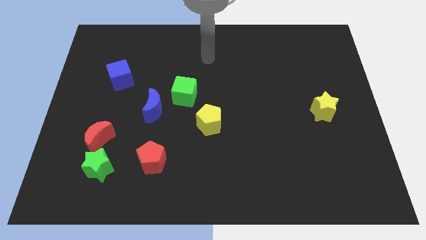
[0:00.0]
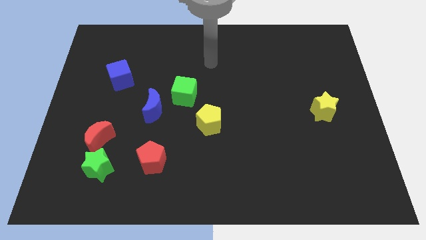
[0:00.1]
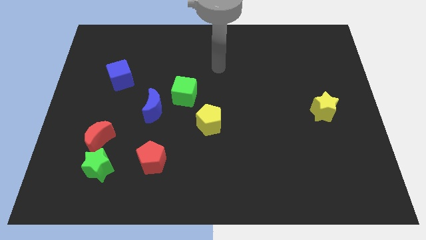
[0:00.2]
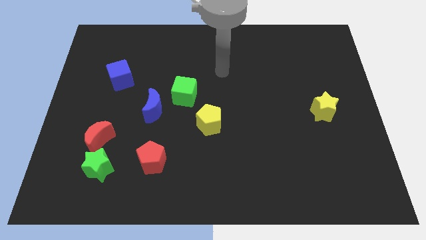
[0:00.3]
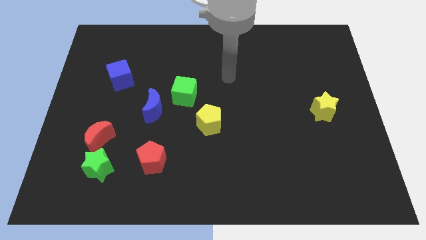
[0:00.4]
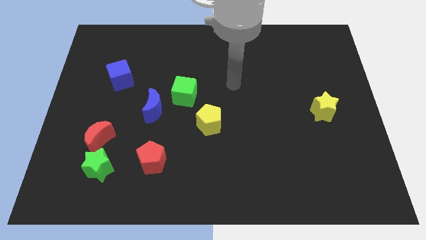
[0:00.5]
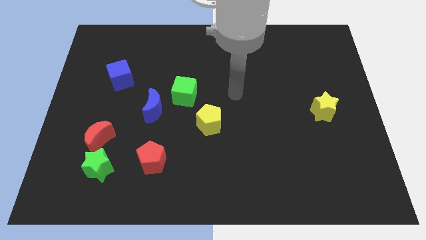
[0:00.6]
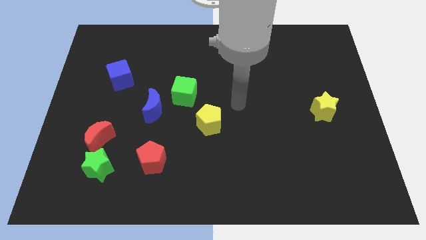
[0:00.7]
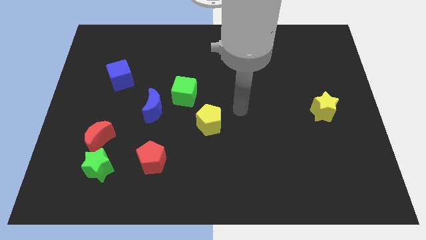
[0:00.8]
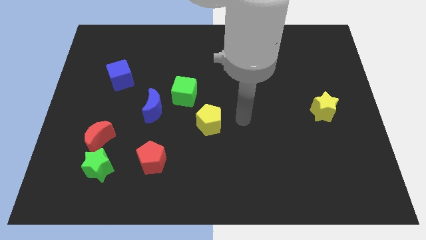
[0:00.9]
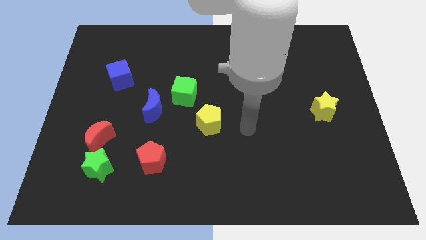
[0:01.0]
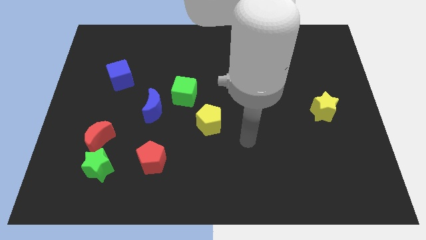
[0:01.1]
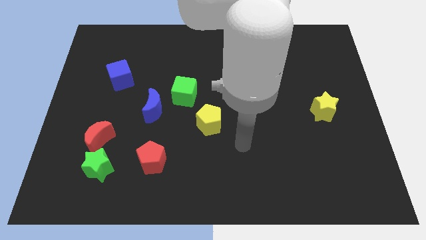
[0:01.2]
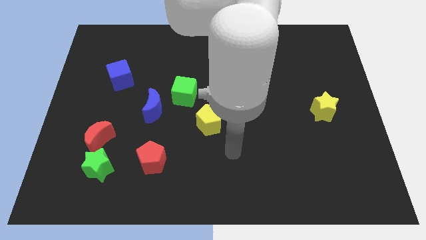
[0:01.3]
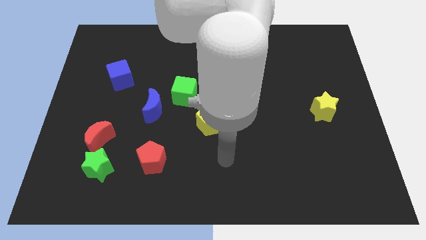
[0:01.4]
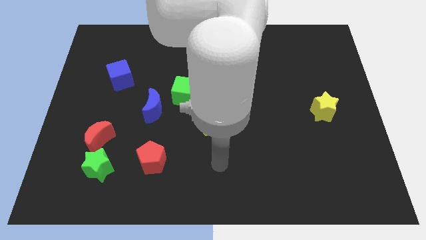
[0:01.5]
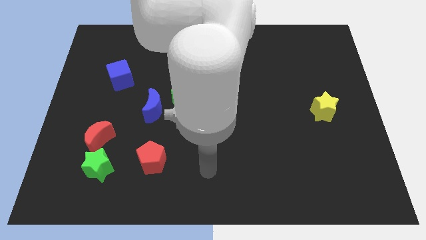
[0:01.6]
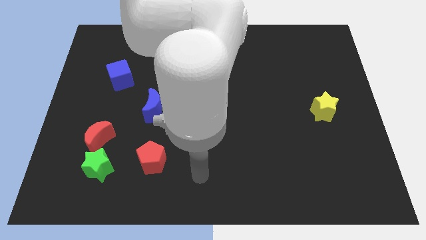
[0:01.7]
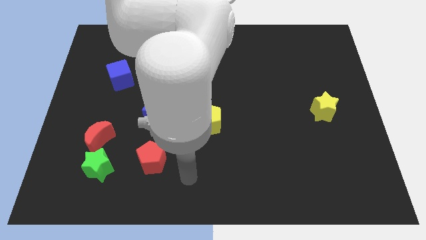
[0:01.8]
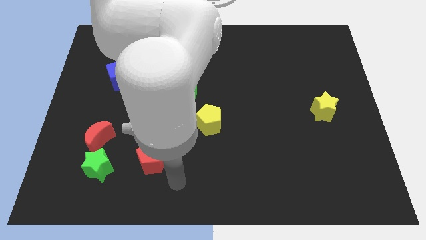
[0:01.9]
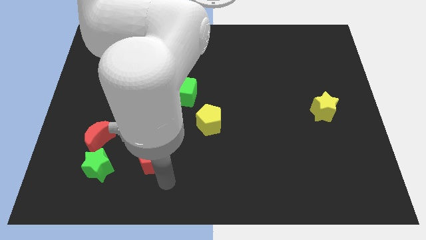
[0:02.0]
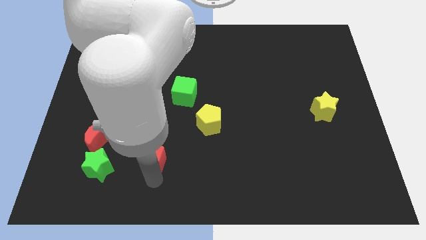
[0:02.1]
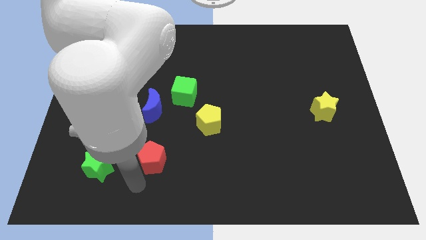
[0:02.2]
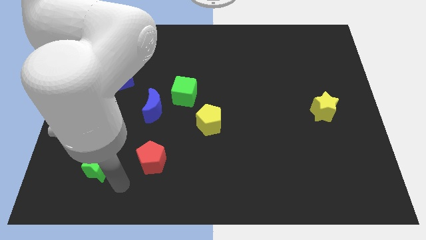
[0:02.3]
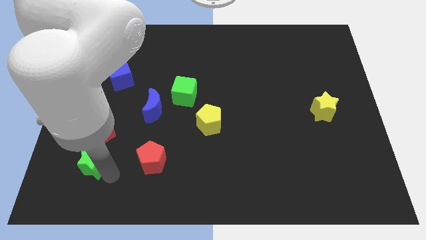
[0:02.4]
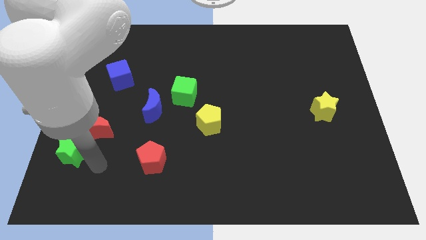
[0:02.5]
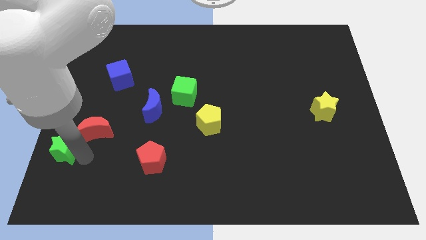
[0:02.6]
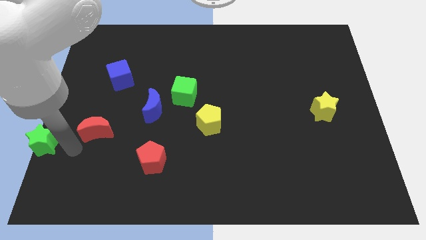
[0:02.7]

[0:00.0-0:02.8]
separate the red moon from the green star

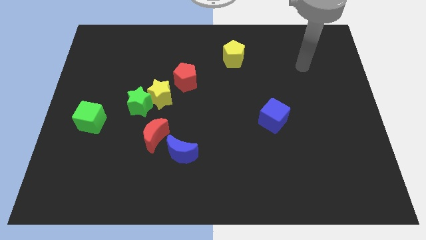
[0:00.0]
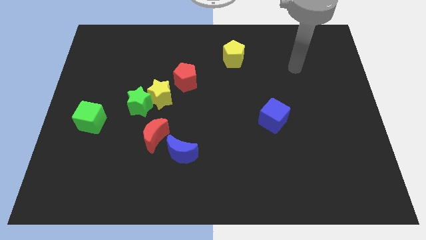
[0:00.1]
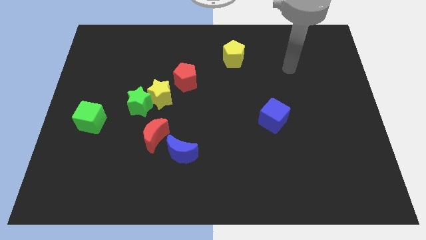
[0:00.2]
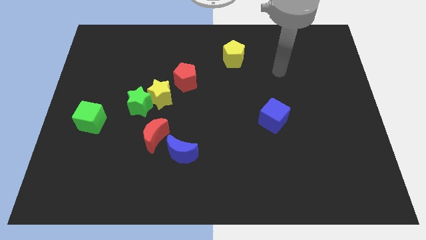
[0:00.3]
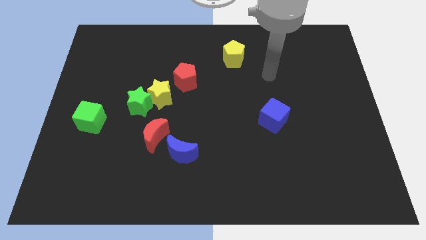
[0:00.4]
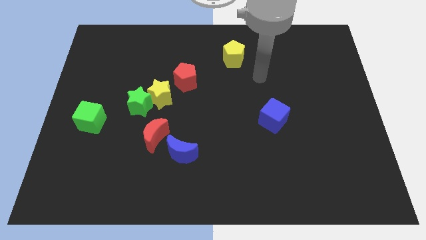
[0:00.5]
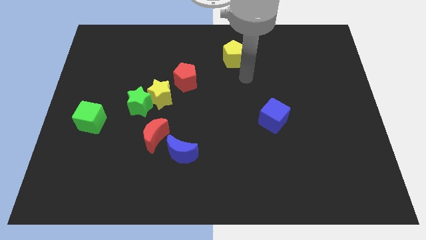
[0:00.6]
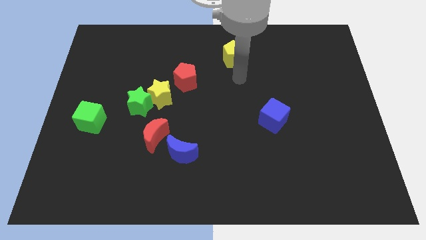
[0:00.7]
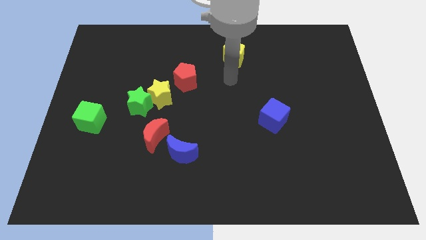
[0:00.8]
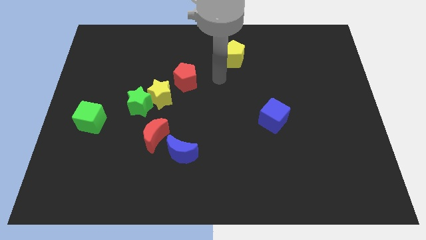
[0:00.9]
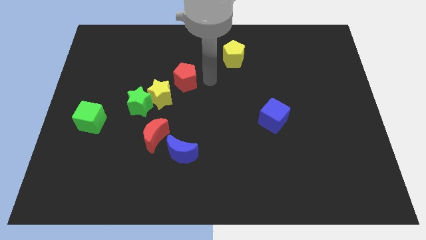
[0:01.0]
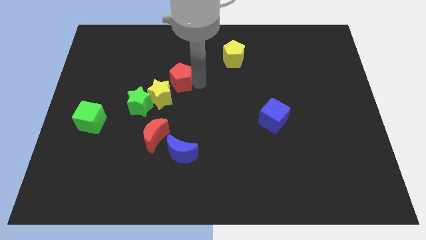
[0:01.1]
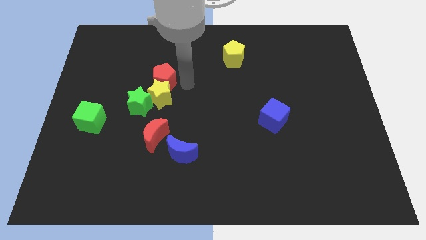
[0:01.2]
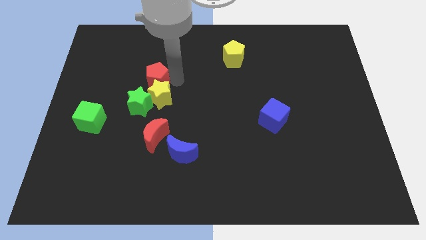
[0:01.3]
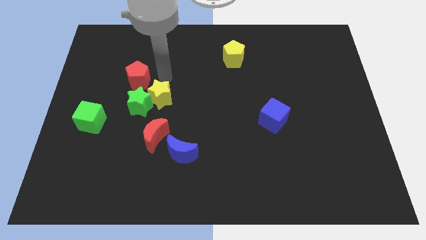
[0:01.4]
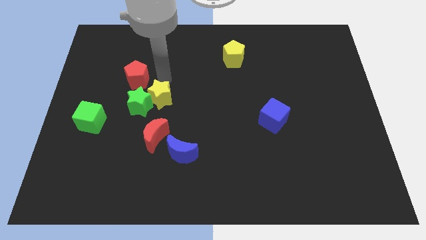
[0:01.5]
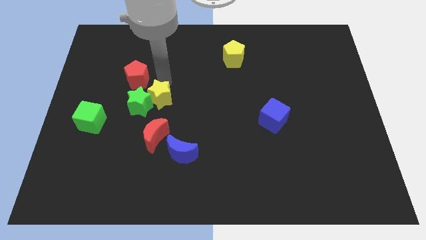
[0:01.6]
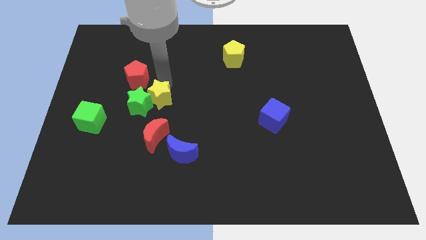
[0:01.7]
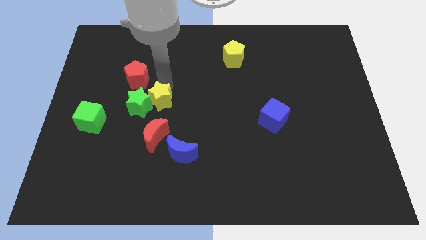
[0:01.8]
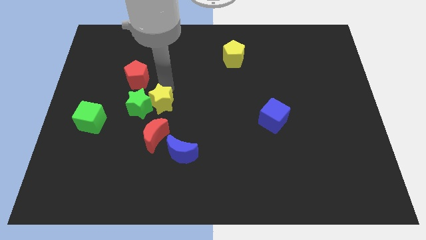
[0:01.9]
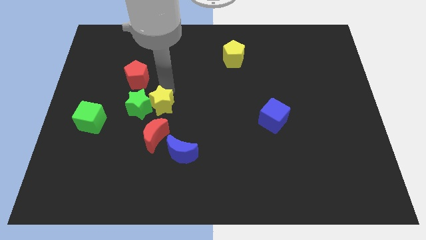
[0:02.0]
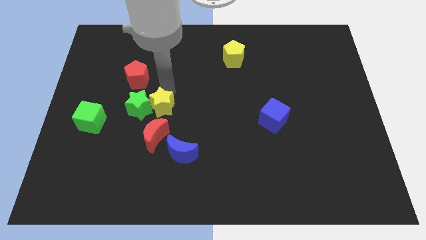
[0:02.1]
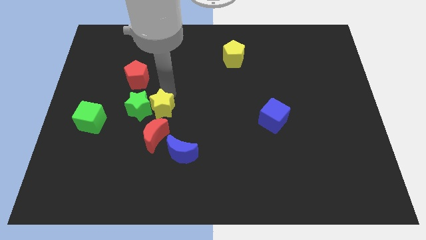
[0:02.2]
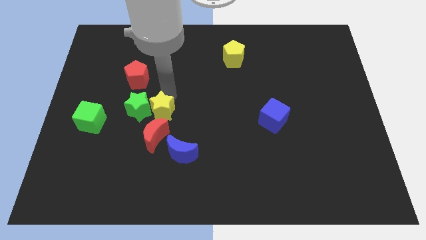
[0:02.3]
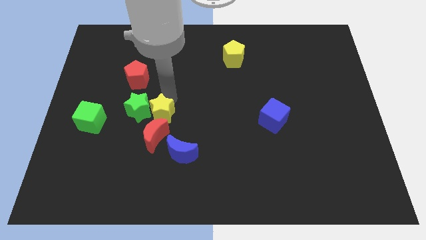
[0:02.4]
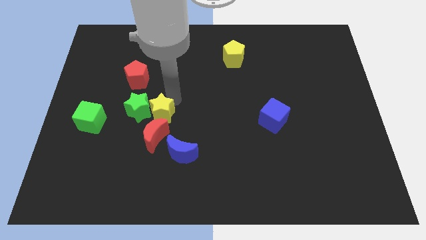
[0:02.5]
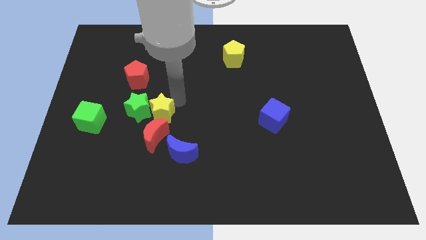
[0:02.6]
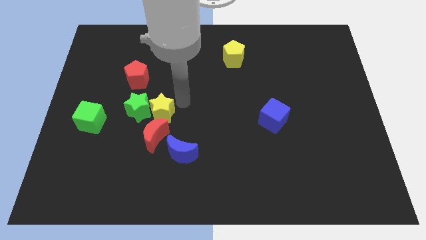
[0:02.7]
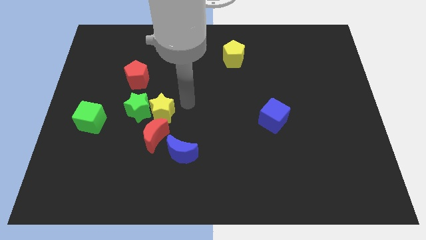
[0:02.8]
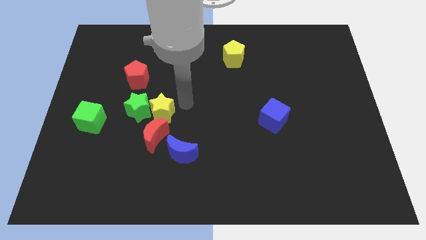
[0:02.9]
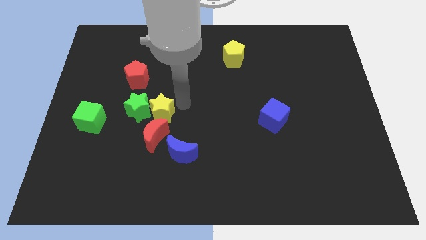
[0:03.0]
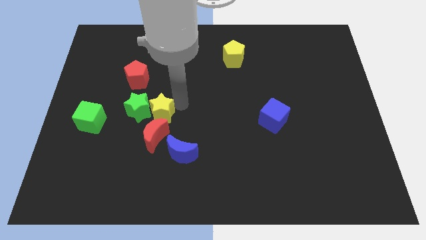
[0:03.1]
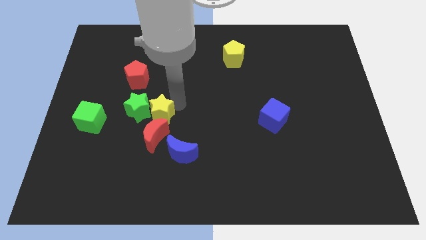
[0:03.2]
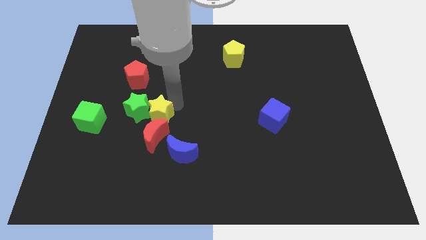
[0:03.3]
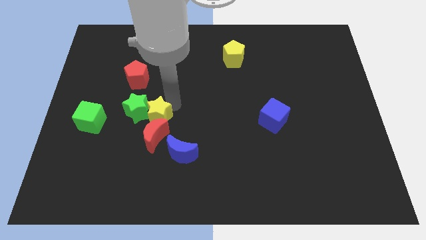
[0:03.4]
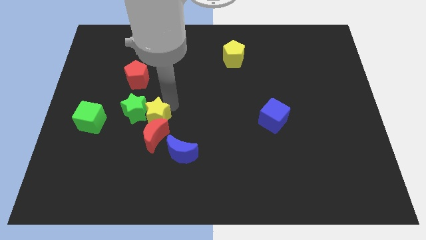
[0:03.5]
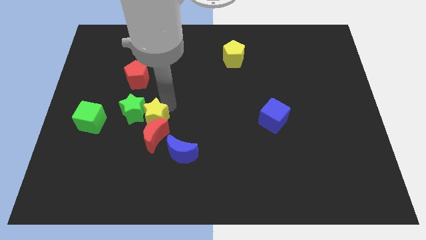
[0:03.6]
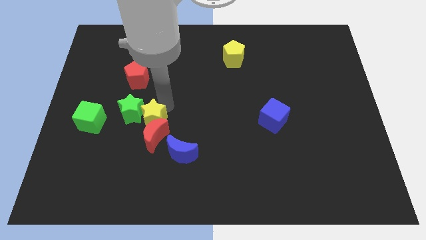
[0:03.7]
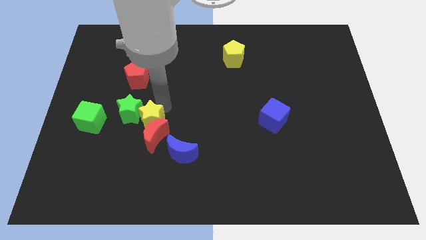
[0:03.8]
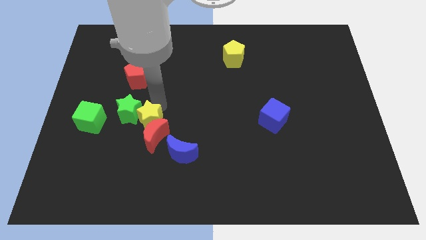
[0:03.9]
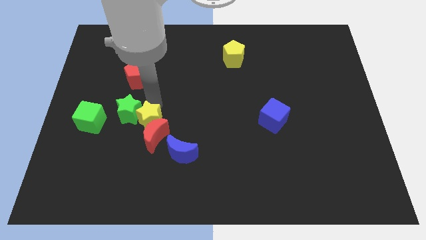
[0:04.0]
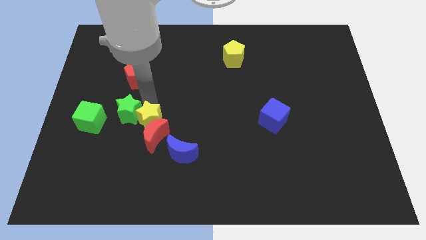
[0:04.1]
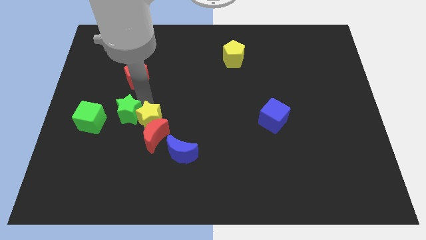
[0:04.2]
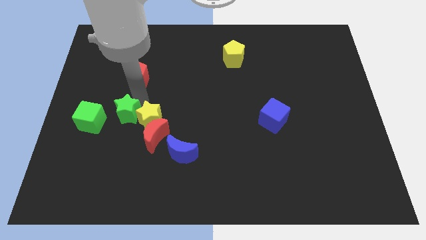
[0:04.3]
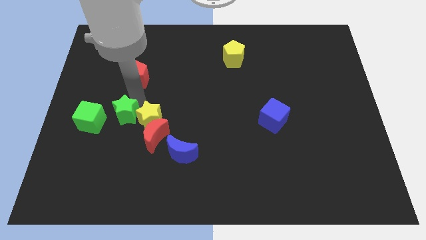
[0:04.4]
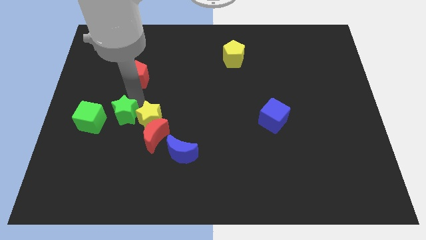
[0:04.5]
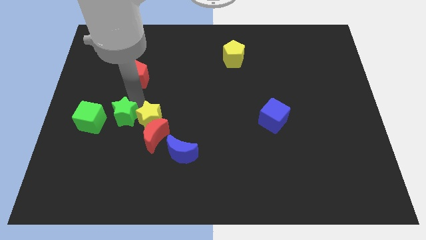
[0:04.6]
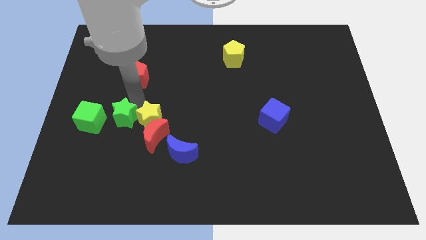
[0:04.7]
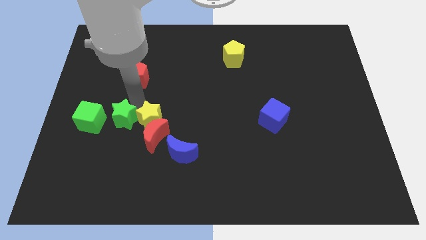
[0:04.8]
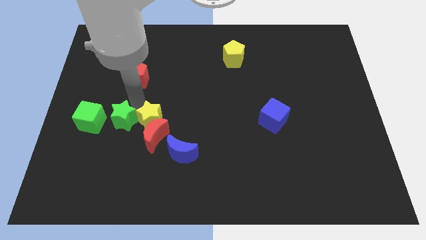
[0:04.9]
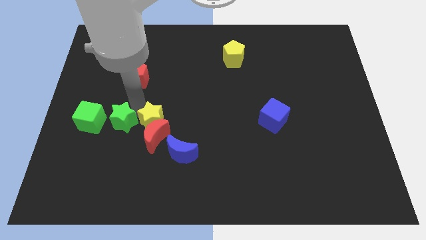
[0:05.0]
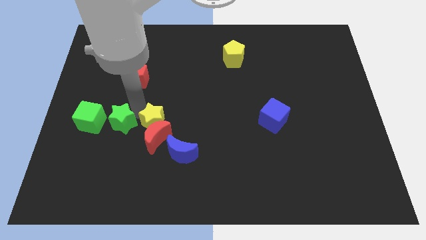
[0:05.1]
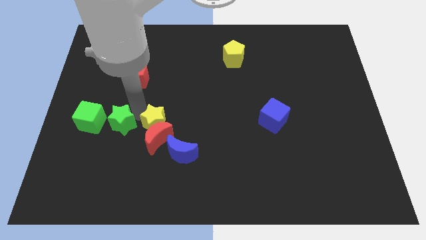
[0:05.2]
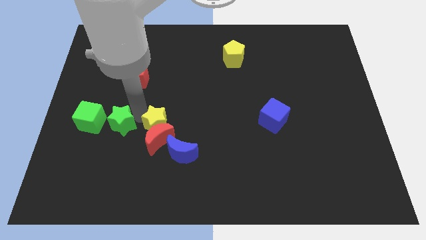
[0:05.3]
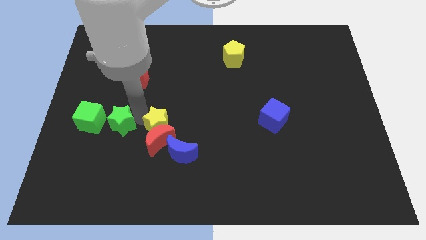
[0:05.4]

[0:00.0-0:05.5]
separate the yellow star from the green star and red pentagon

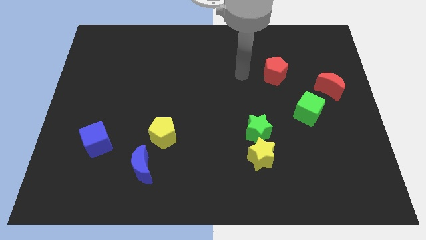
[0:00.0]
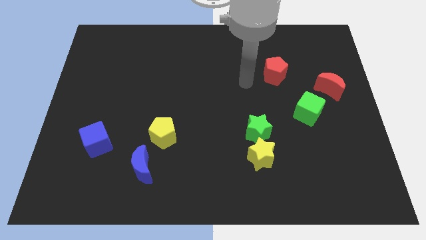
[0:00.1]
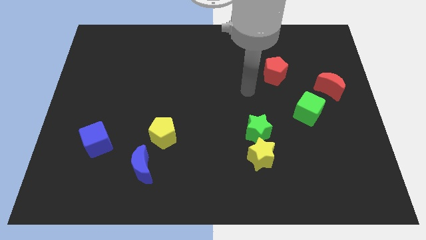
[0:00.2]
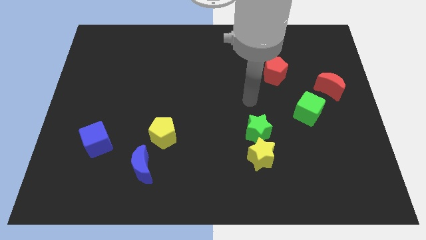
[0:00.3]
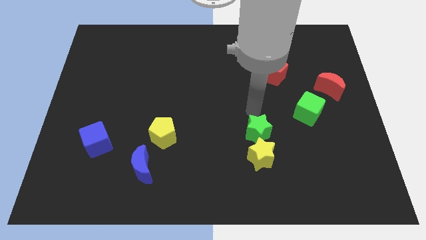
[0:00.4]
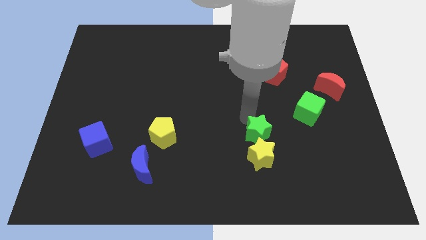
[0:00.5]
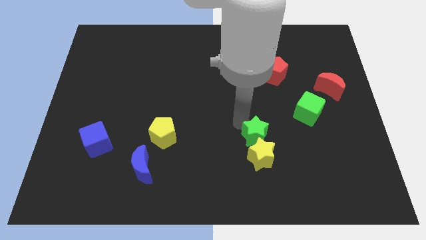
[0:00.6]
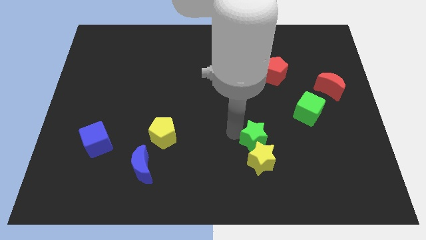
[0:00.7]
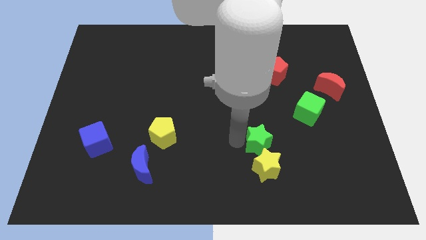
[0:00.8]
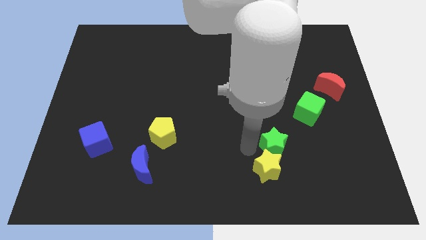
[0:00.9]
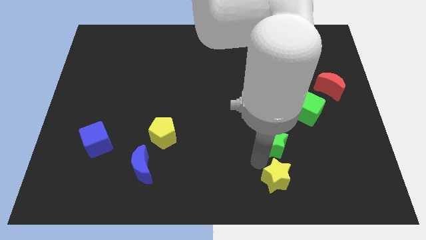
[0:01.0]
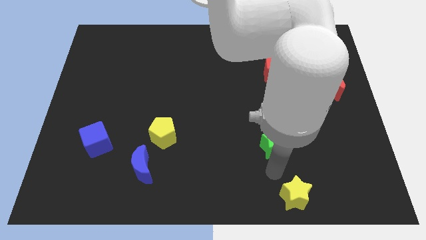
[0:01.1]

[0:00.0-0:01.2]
pull the green star apart from the yellow star
